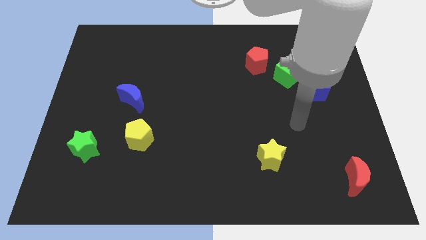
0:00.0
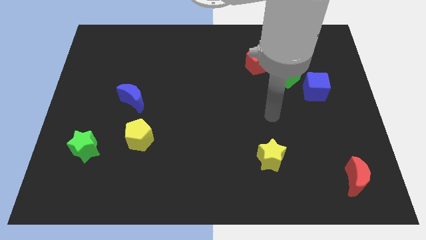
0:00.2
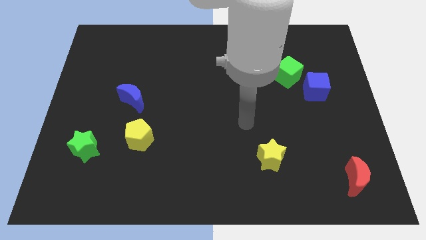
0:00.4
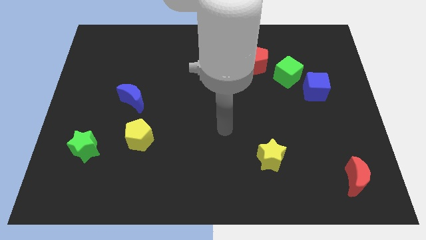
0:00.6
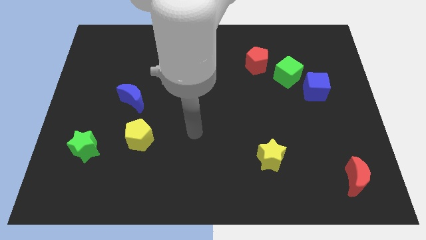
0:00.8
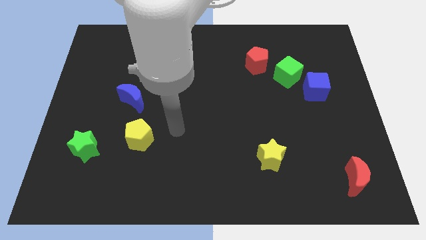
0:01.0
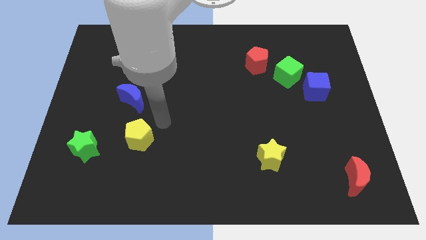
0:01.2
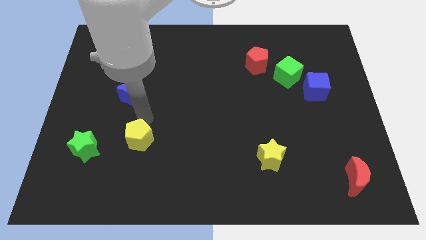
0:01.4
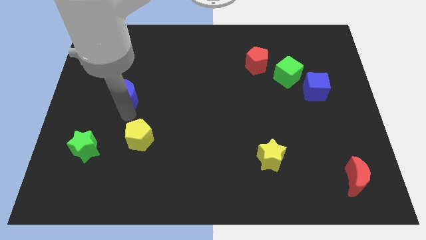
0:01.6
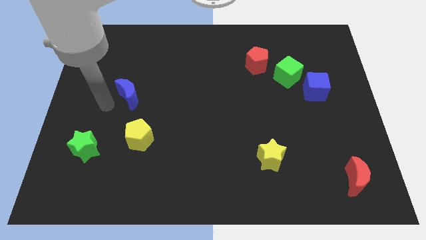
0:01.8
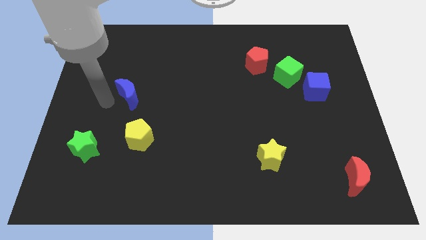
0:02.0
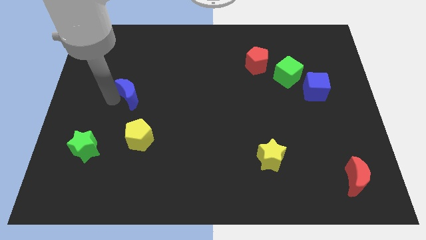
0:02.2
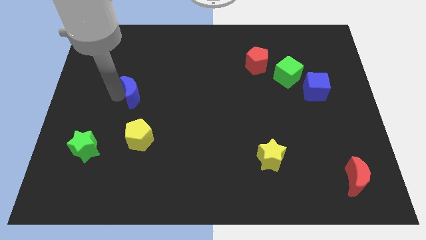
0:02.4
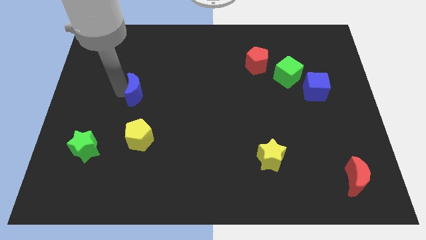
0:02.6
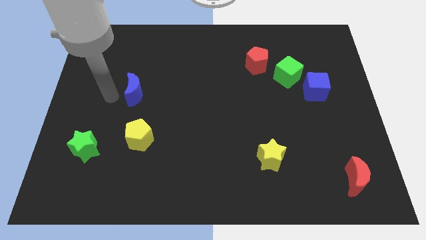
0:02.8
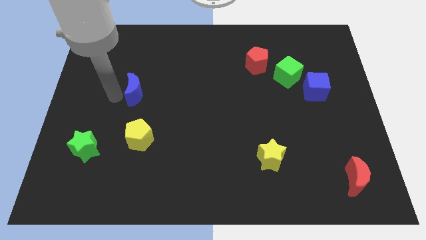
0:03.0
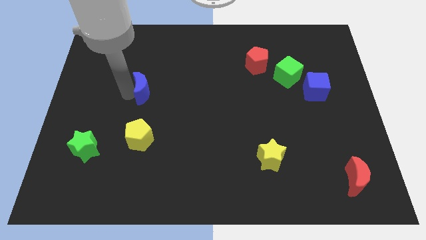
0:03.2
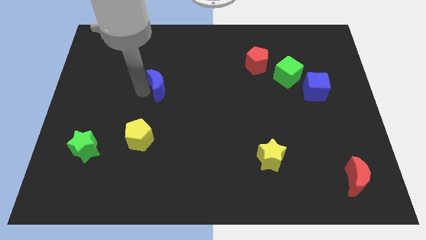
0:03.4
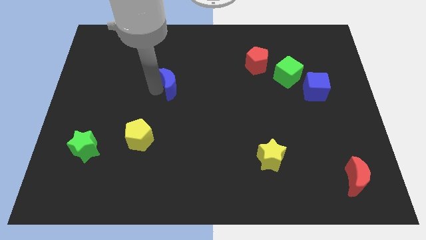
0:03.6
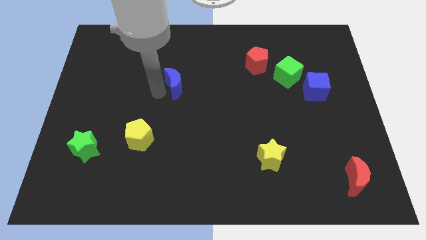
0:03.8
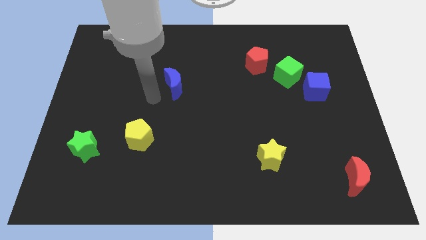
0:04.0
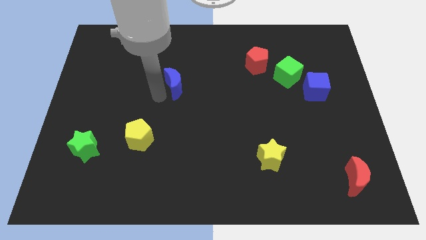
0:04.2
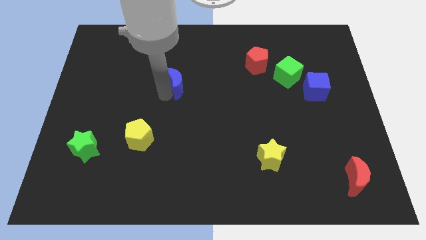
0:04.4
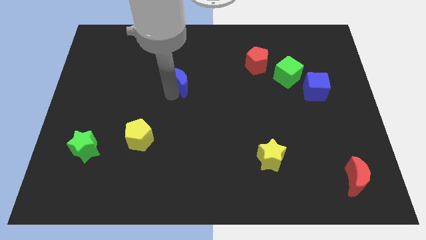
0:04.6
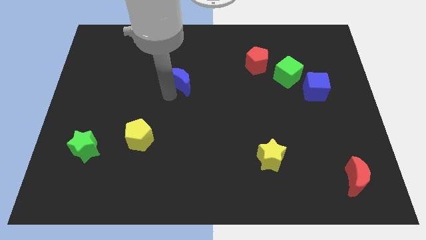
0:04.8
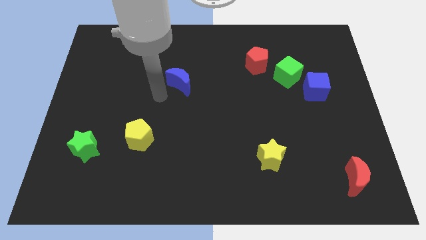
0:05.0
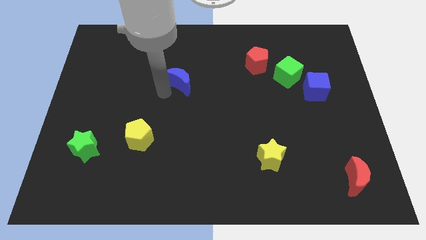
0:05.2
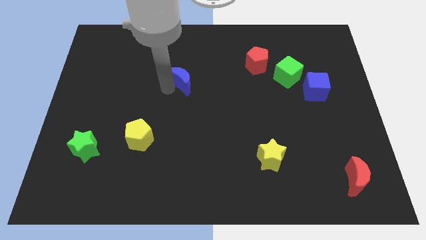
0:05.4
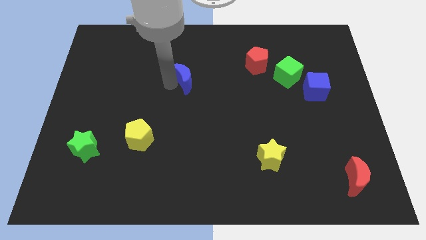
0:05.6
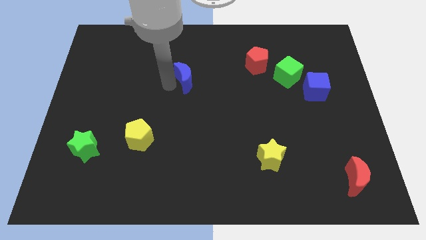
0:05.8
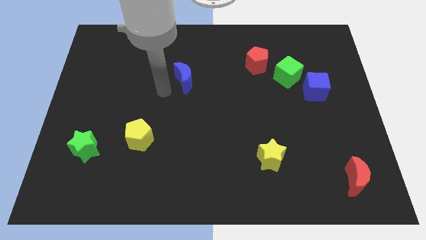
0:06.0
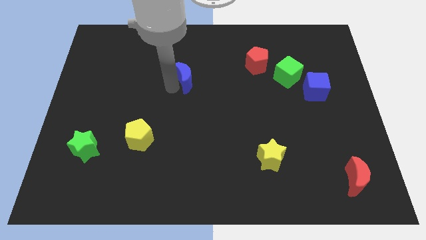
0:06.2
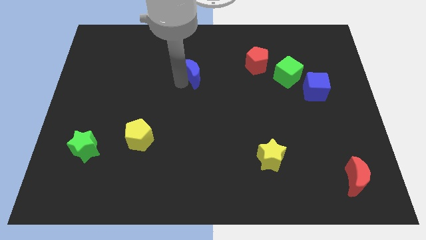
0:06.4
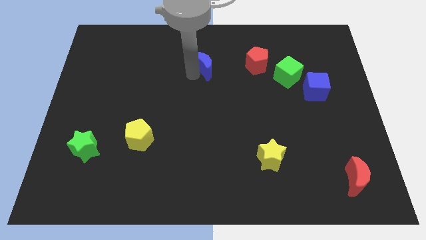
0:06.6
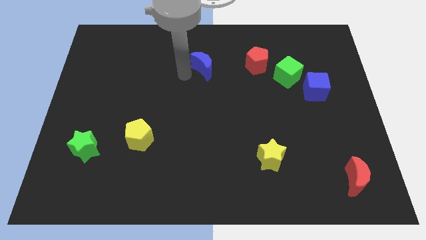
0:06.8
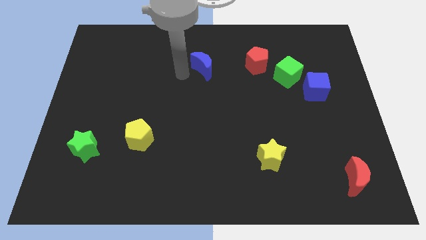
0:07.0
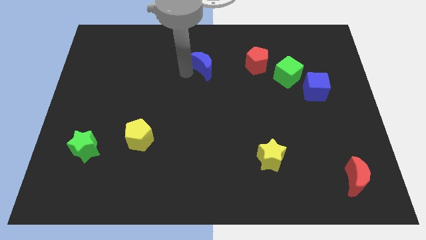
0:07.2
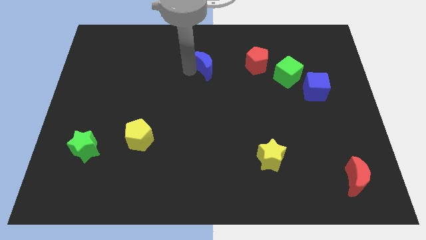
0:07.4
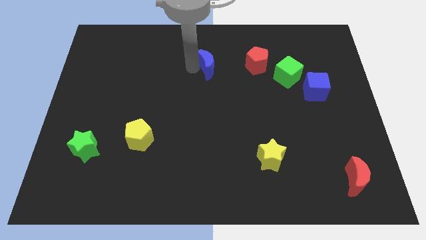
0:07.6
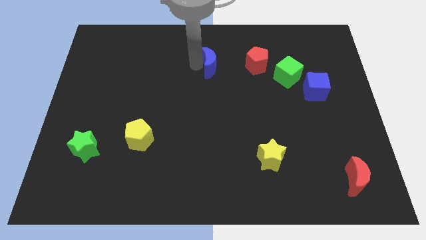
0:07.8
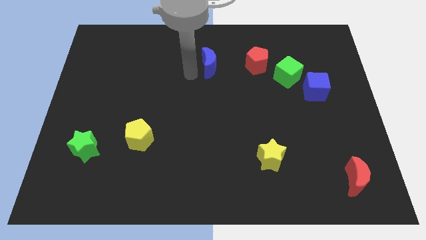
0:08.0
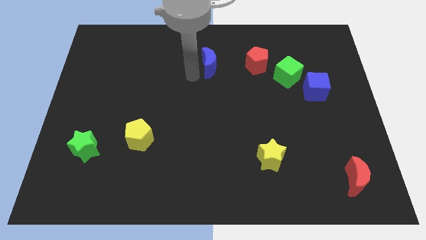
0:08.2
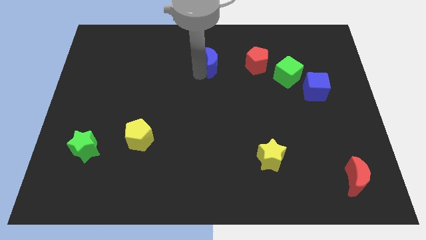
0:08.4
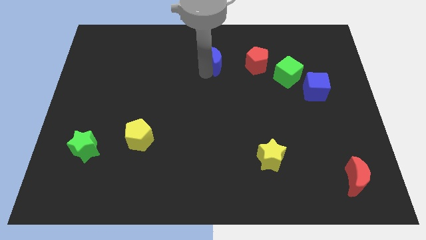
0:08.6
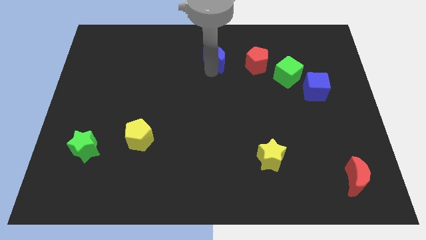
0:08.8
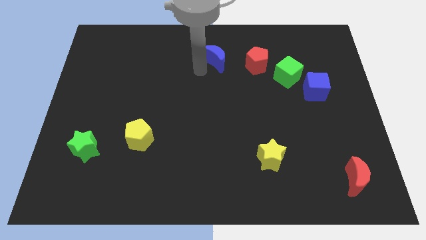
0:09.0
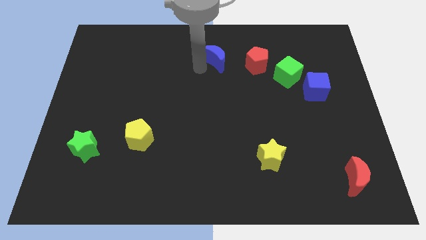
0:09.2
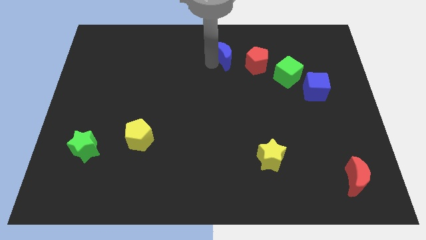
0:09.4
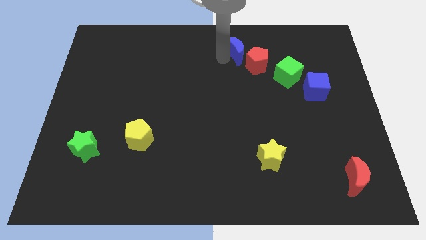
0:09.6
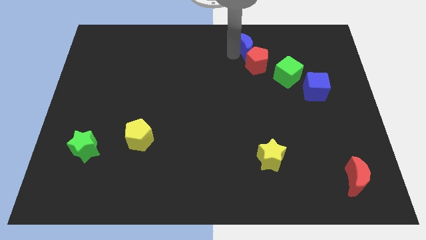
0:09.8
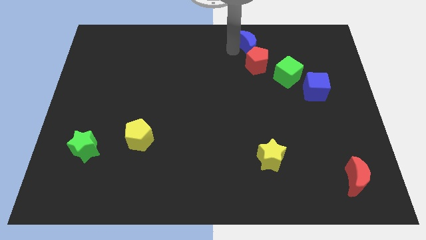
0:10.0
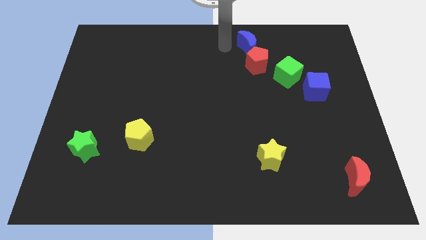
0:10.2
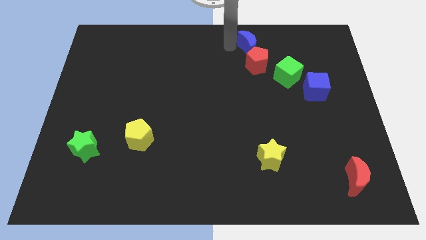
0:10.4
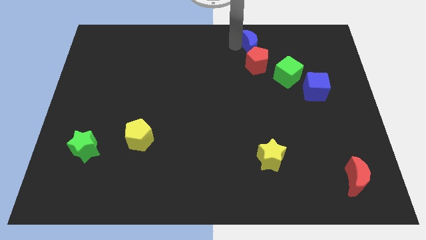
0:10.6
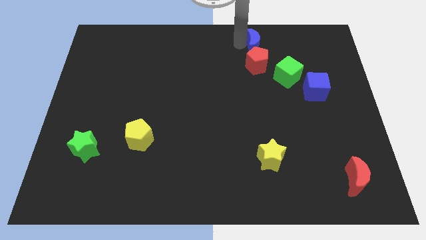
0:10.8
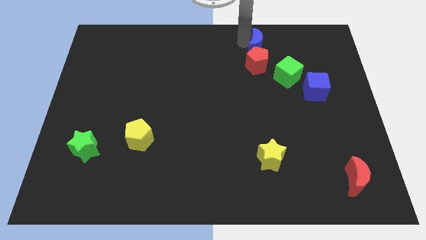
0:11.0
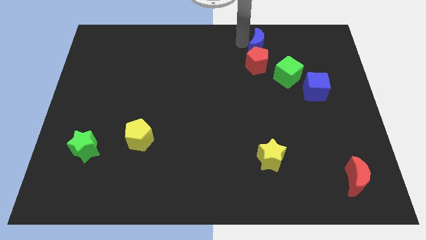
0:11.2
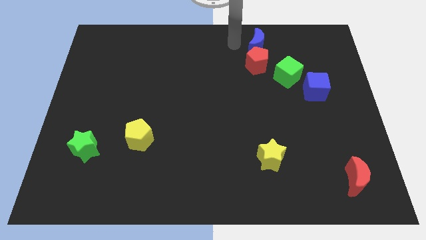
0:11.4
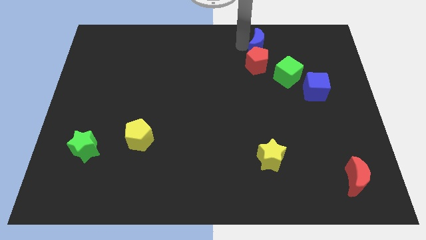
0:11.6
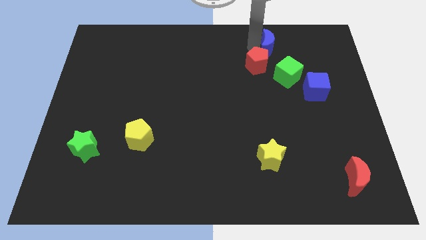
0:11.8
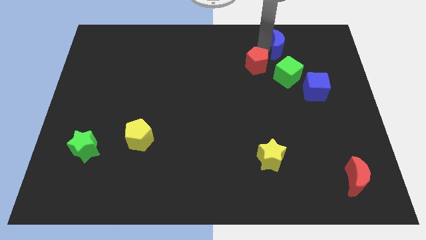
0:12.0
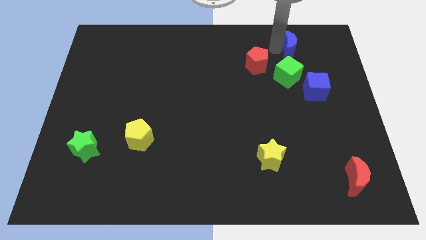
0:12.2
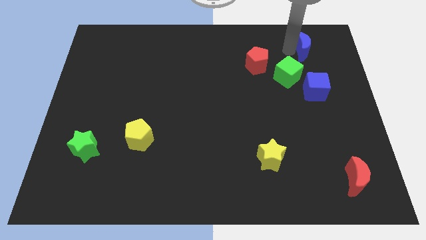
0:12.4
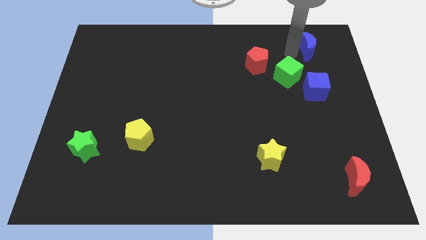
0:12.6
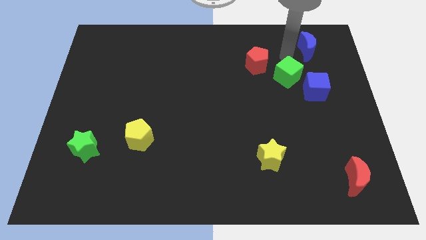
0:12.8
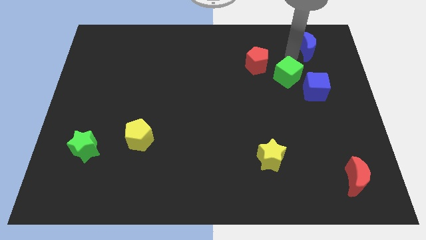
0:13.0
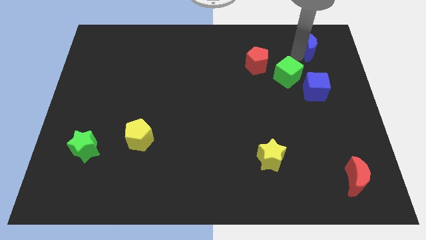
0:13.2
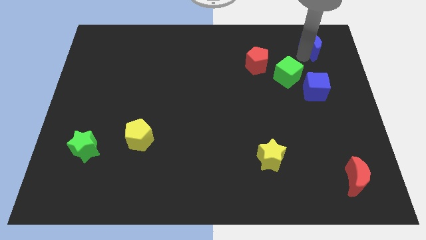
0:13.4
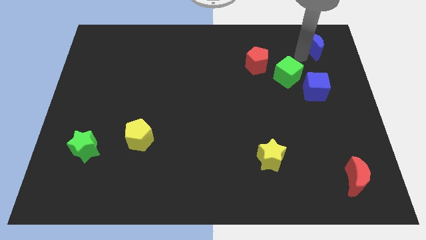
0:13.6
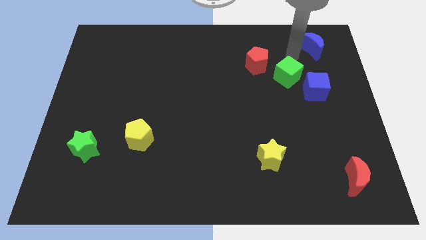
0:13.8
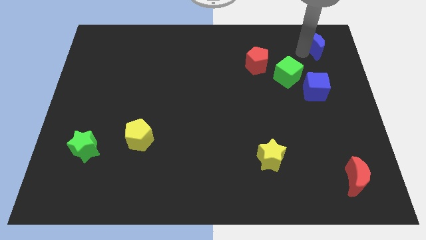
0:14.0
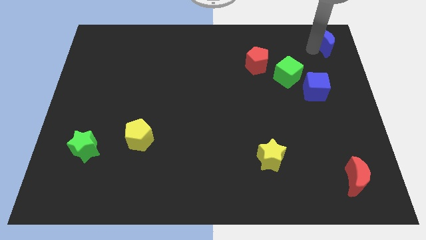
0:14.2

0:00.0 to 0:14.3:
slide the blue moon to the top right of the board
